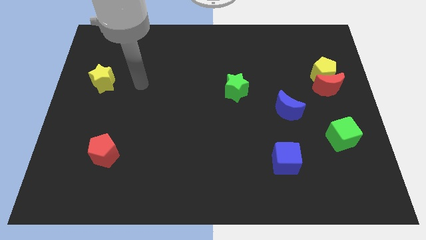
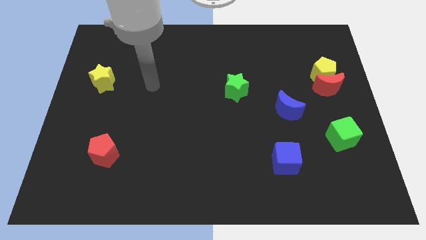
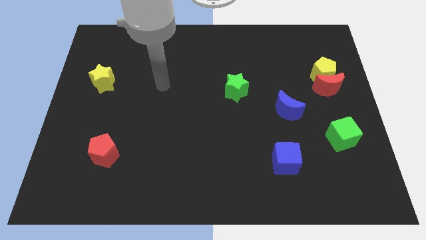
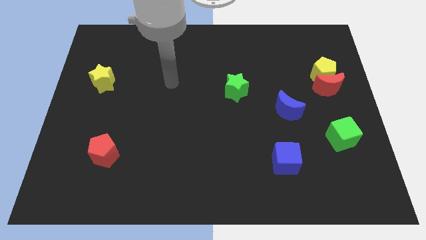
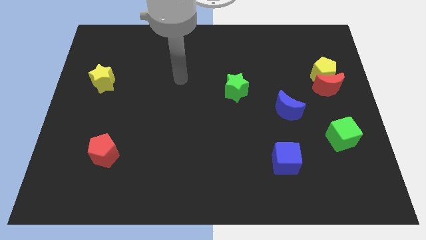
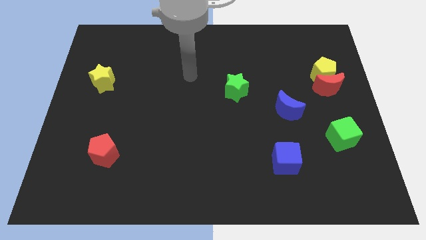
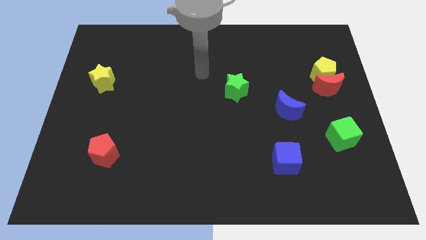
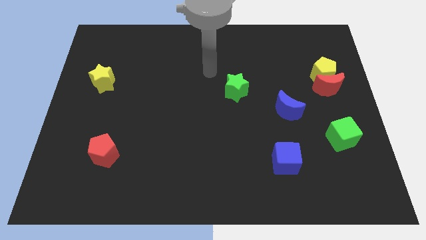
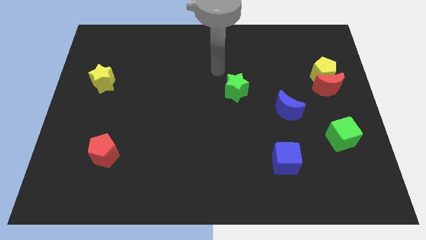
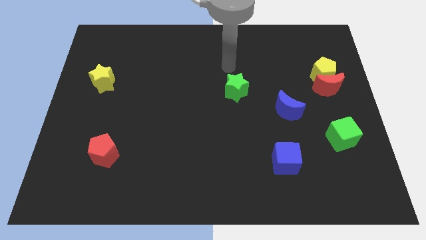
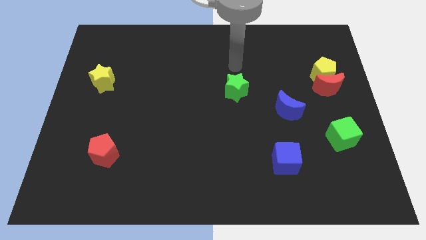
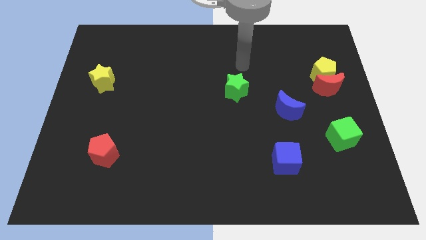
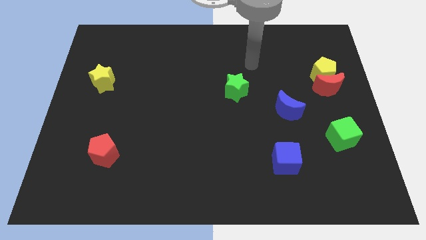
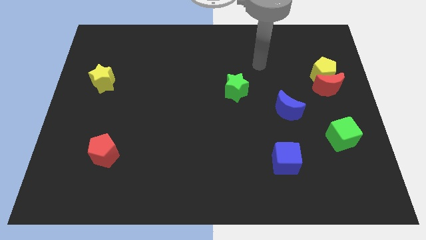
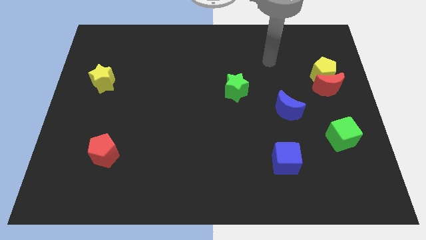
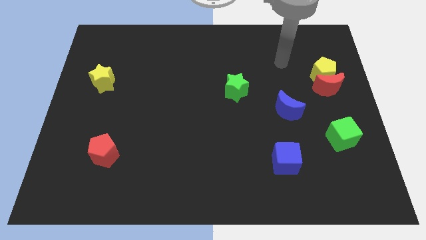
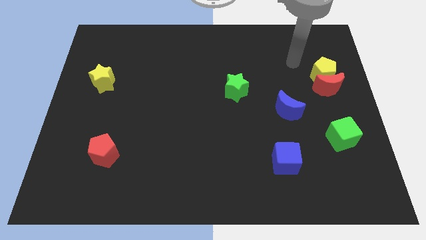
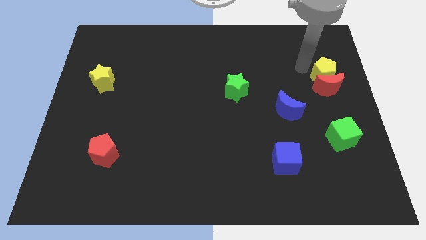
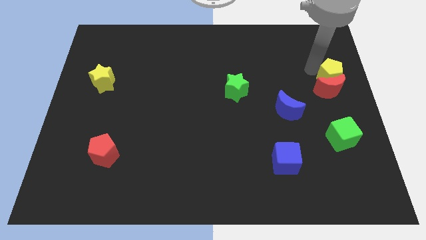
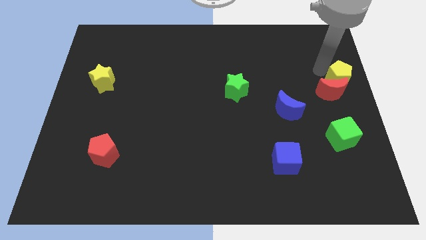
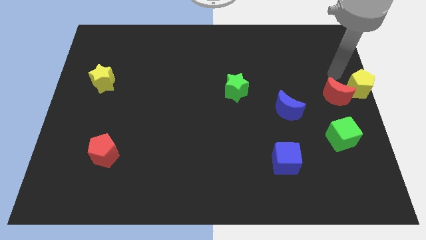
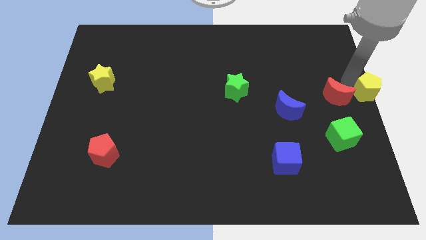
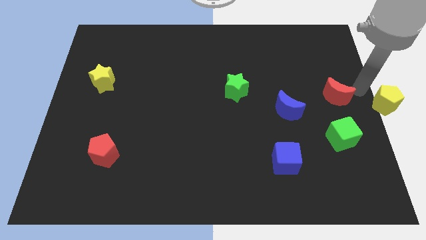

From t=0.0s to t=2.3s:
separate the red moon from the yellow pentagon

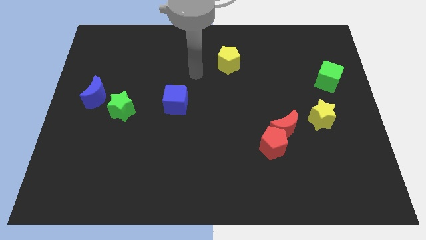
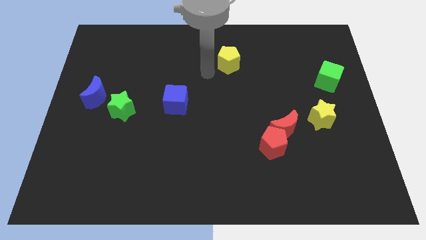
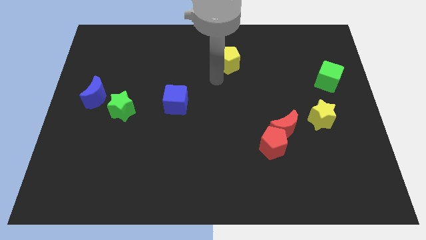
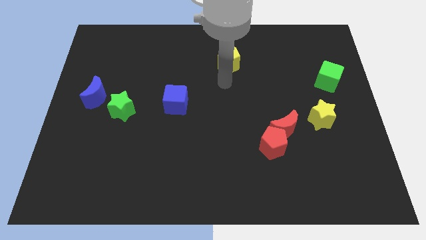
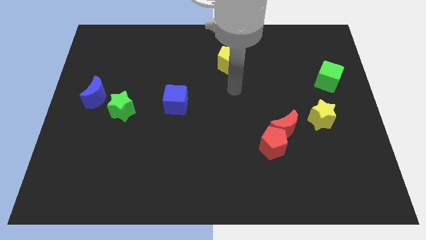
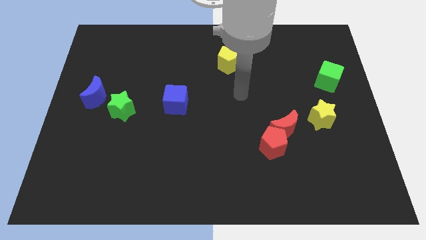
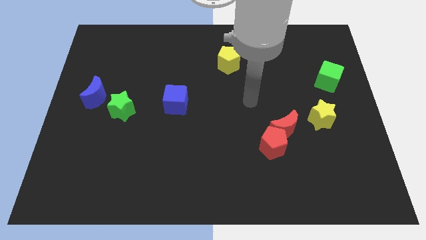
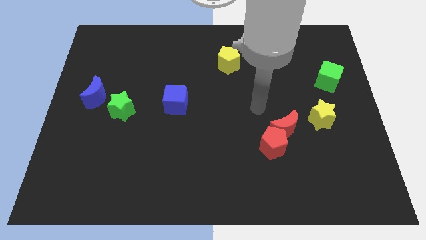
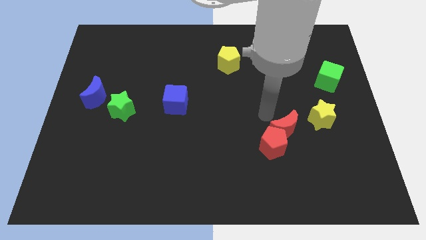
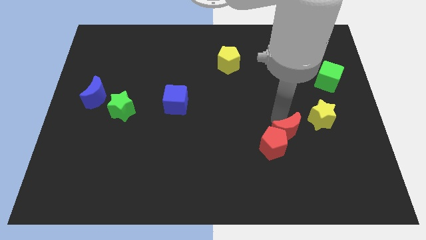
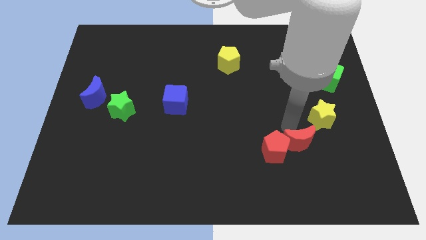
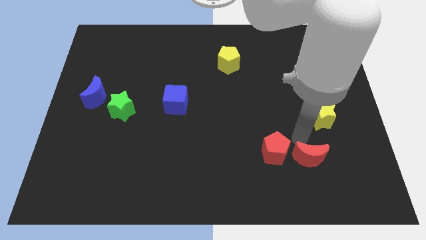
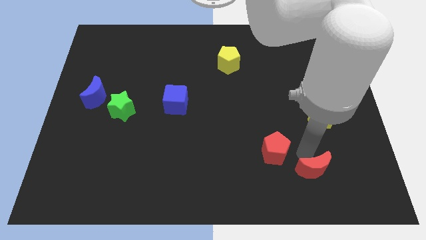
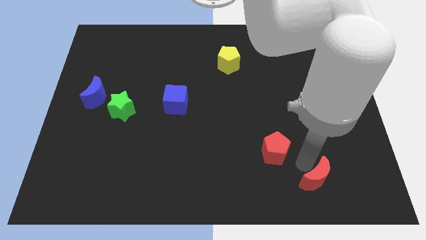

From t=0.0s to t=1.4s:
pull the red pentagon apart from the red moon

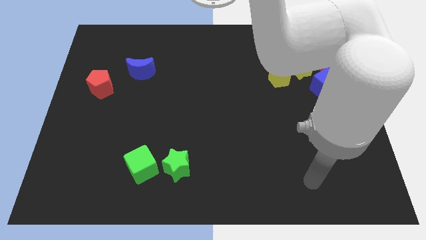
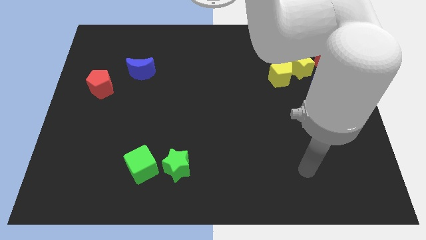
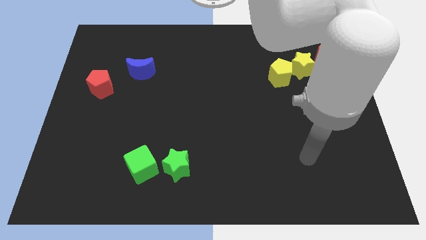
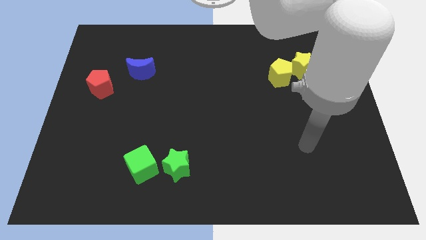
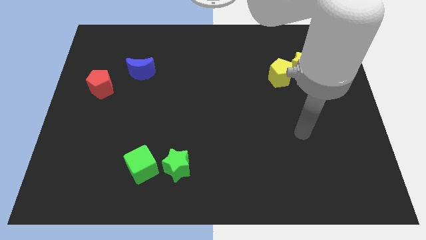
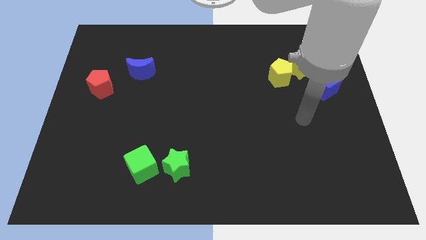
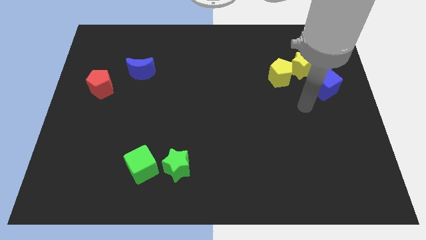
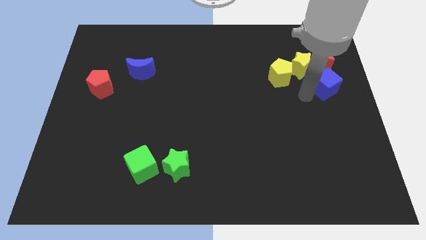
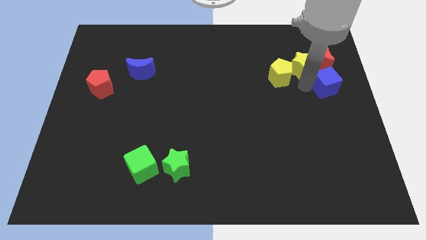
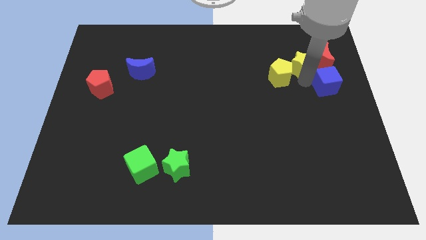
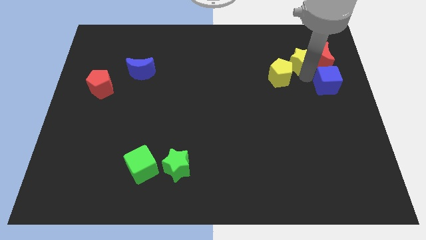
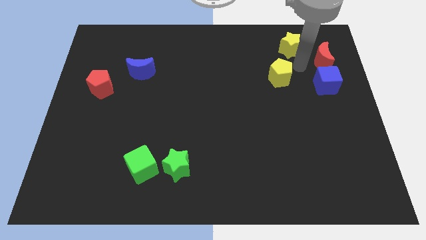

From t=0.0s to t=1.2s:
separate the yellow pentagon from the yellow star

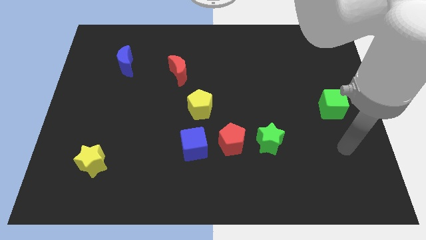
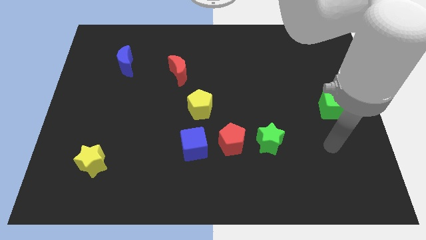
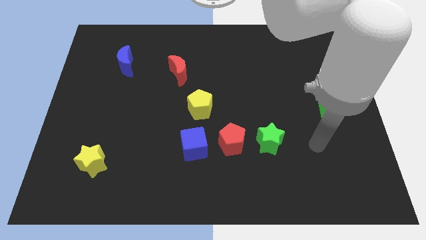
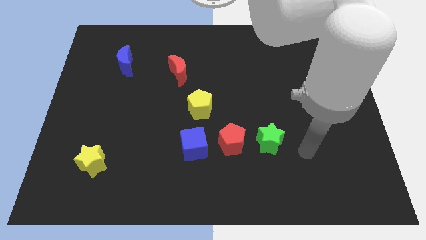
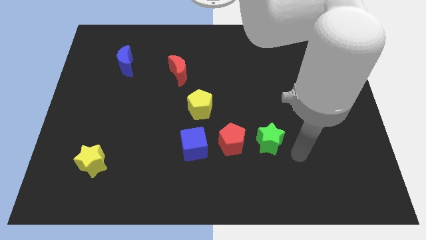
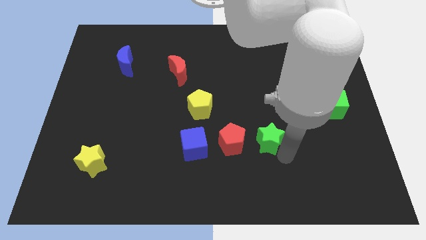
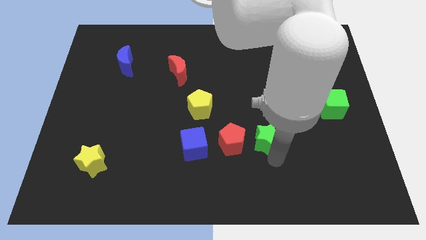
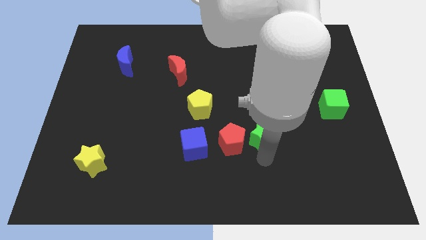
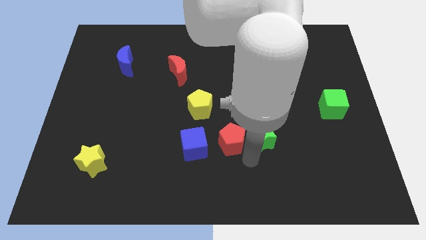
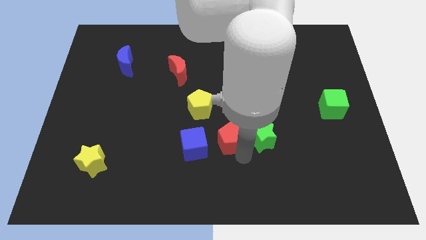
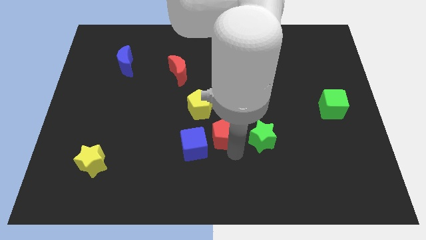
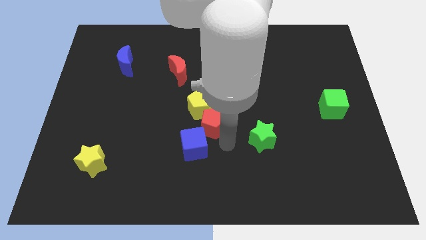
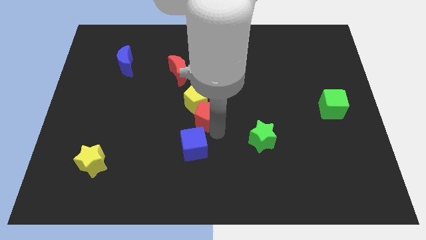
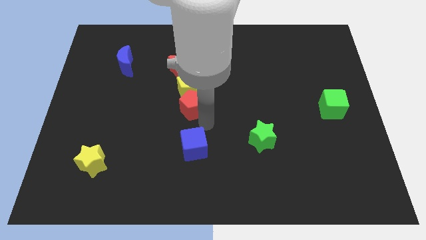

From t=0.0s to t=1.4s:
separate the blue cube from the red pentagon

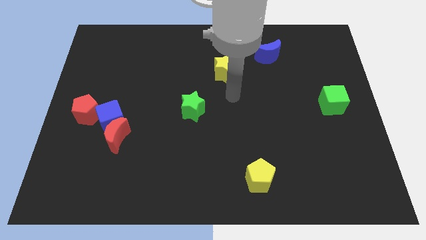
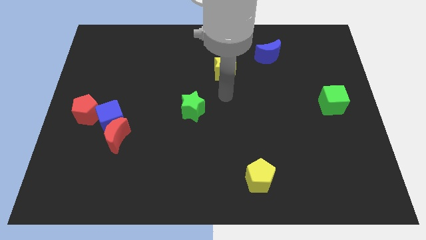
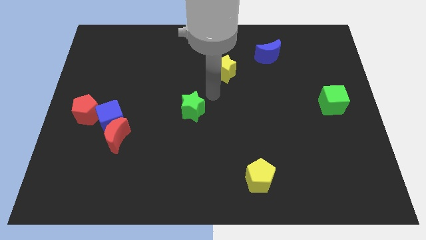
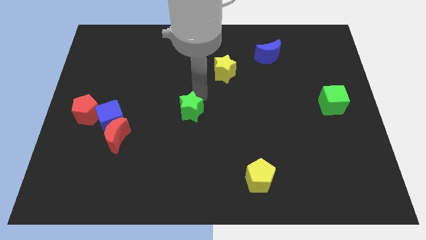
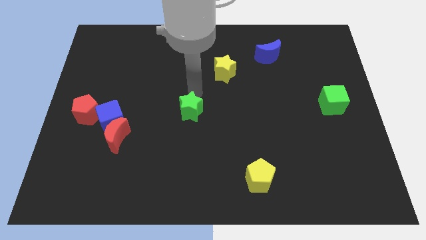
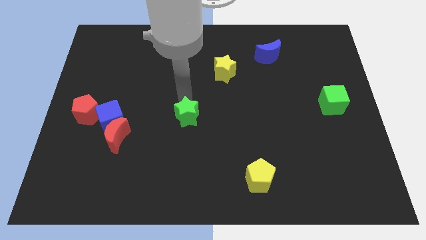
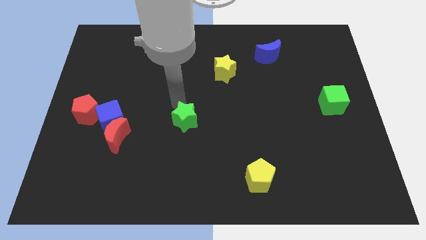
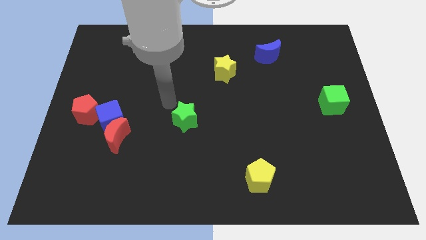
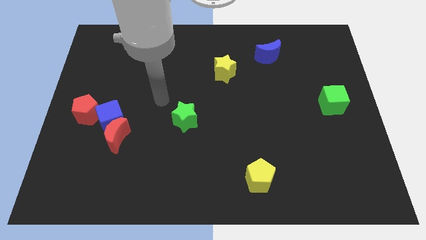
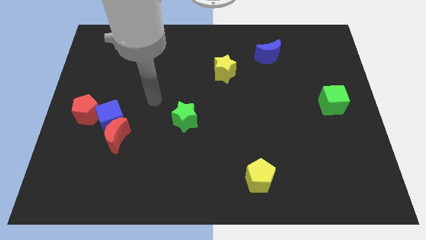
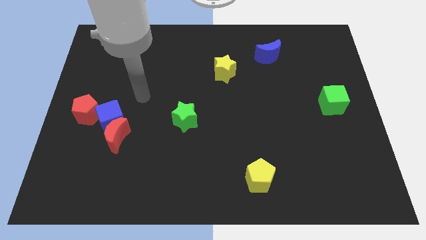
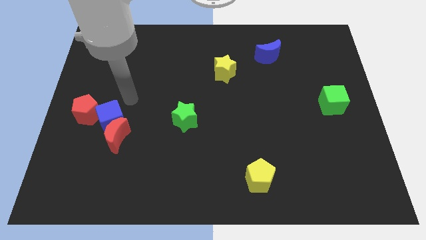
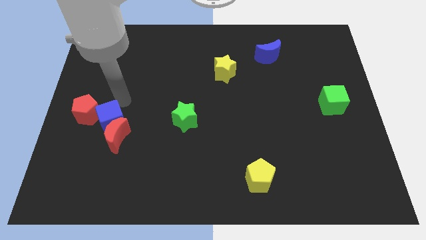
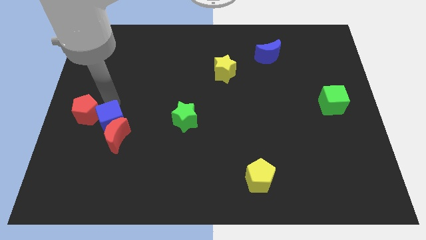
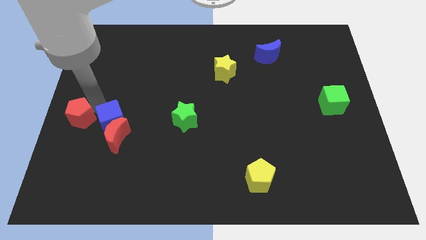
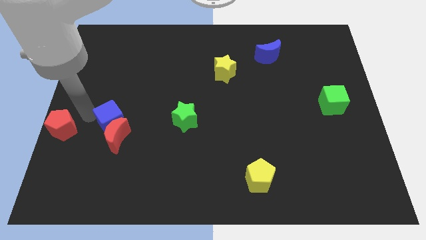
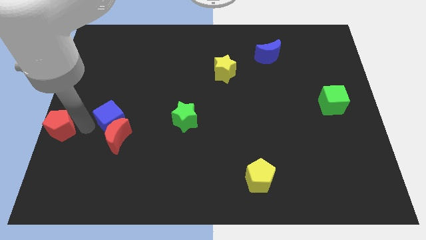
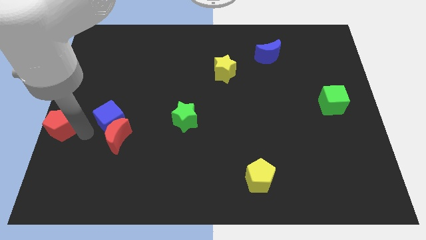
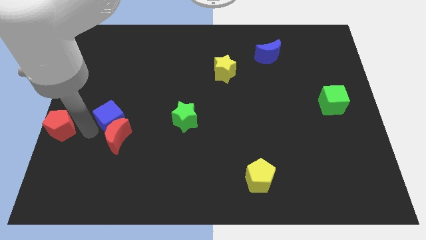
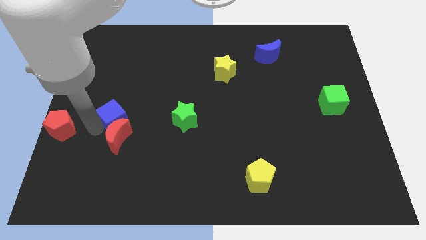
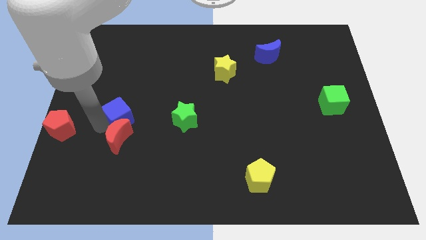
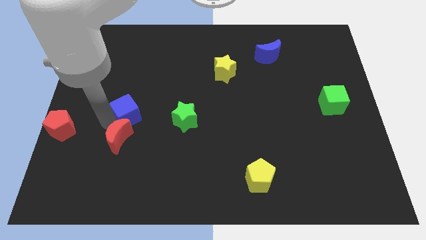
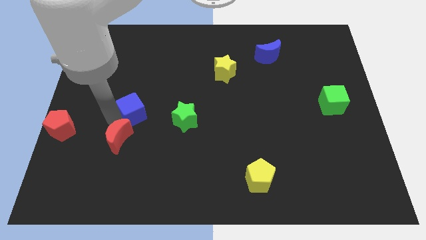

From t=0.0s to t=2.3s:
move the blue cube away from the red moon and red pentagon

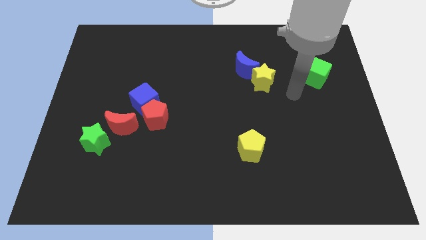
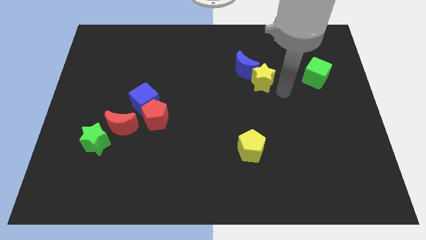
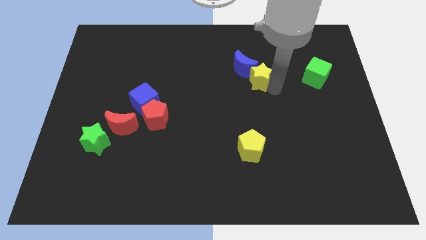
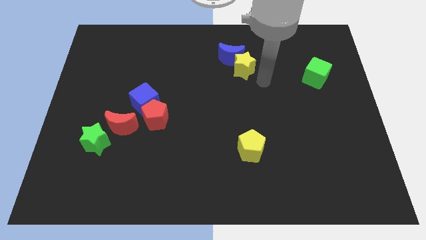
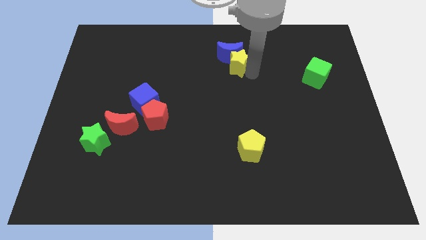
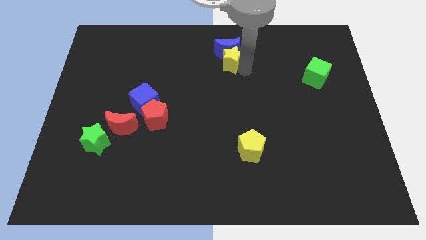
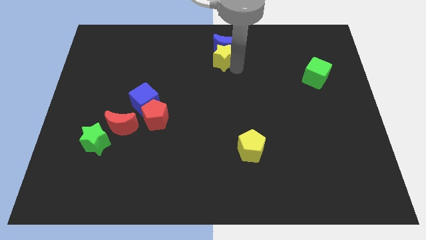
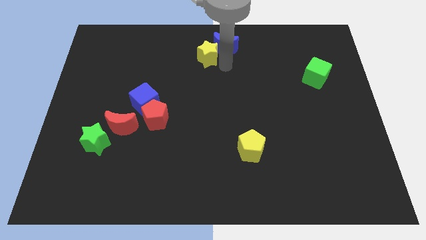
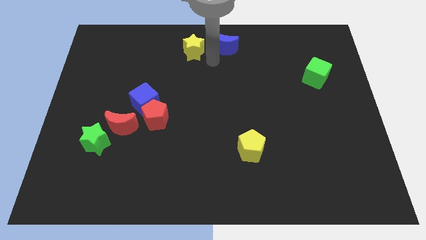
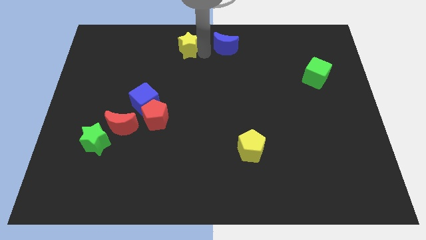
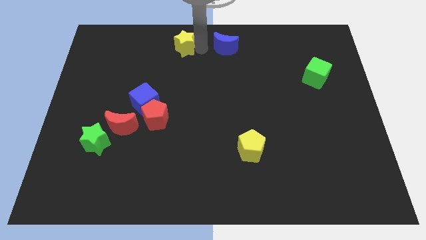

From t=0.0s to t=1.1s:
move the blue moon away from the yellow star
